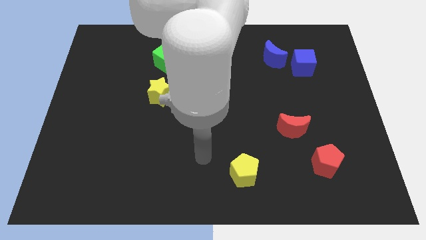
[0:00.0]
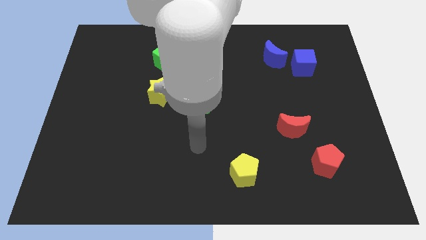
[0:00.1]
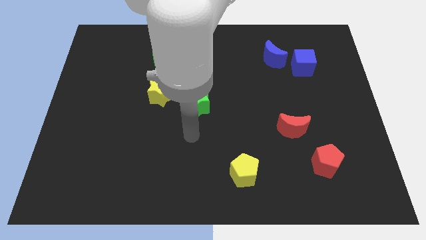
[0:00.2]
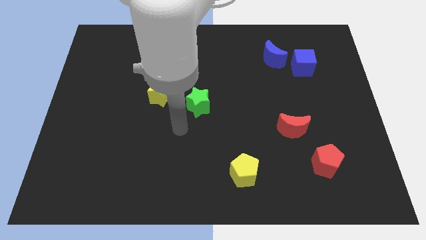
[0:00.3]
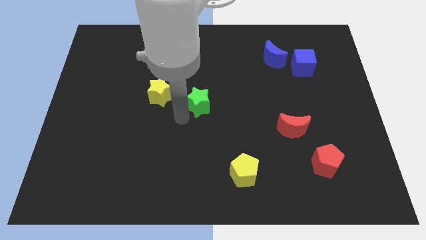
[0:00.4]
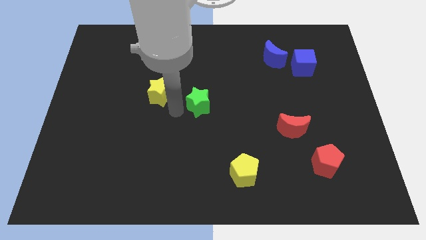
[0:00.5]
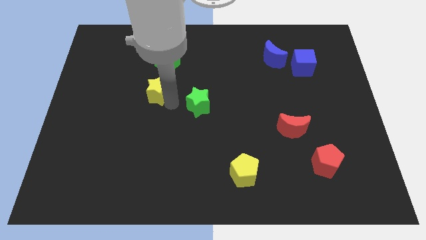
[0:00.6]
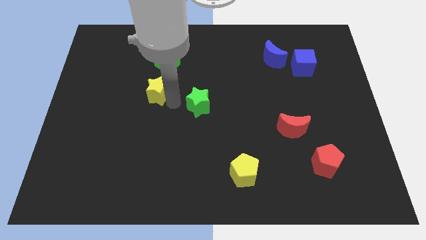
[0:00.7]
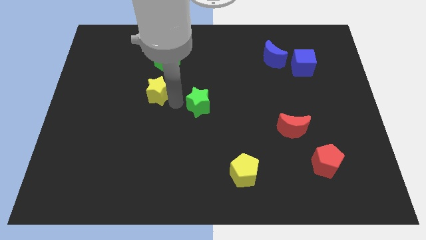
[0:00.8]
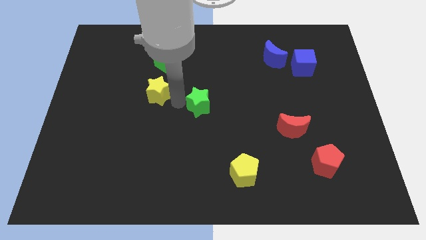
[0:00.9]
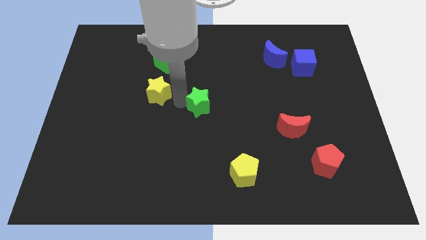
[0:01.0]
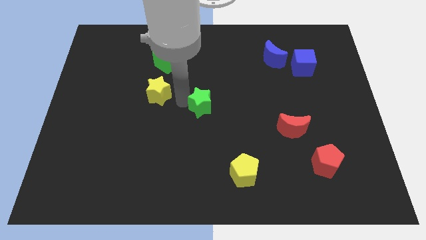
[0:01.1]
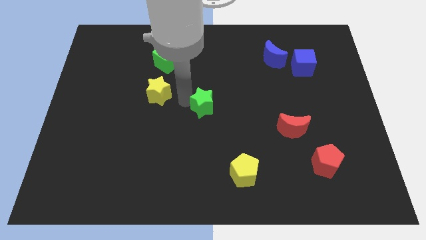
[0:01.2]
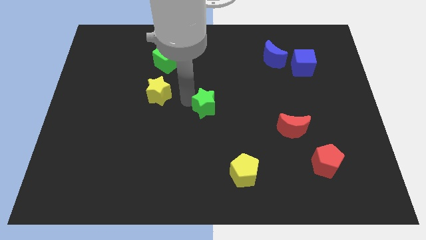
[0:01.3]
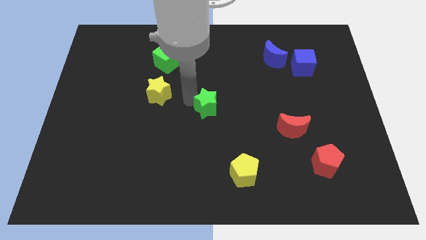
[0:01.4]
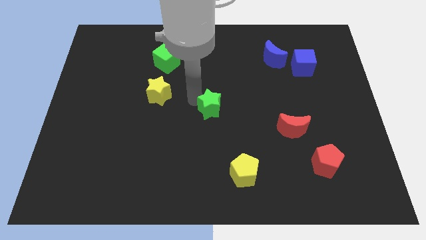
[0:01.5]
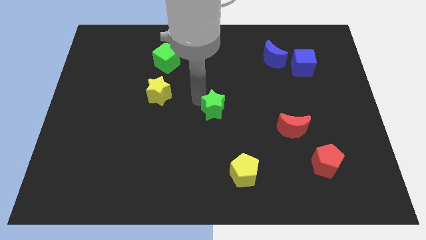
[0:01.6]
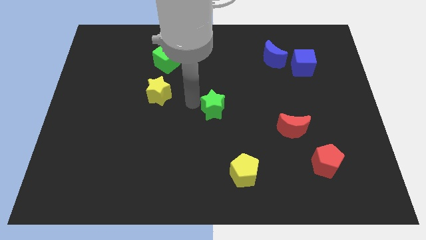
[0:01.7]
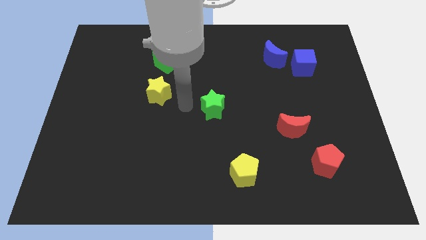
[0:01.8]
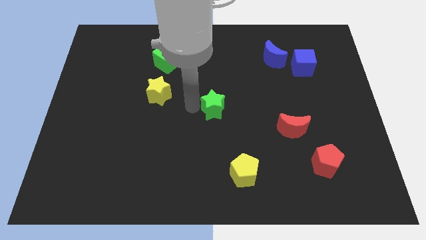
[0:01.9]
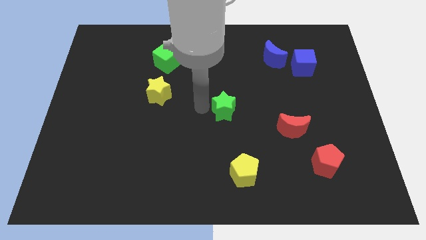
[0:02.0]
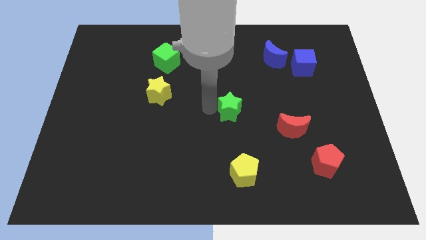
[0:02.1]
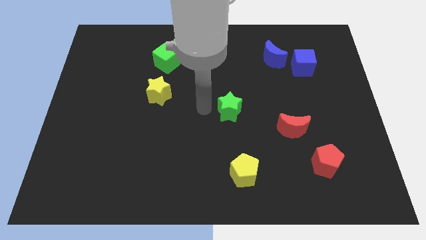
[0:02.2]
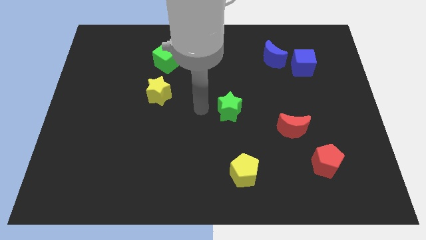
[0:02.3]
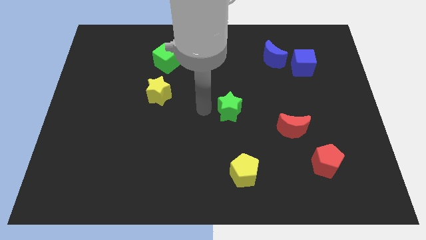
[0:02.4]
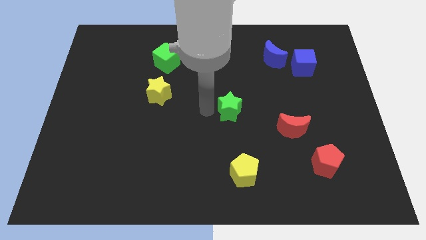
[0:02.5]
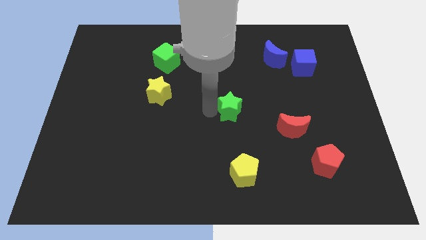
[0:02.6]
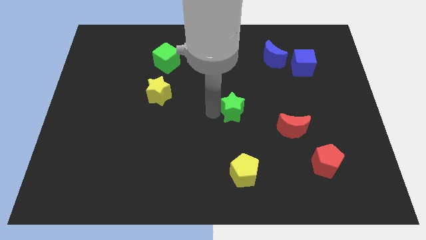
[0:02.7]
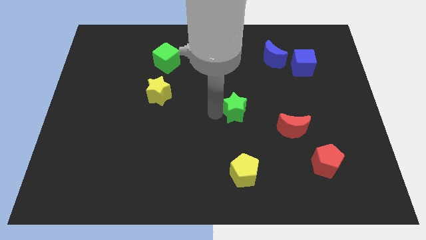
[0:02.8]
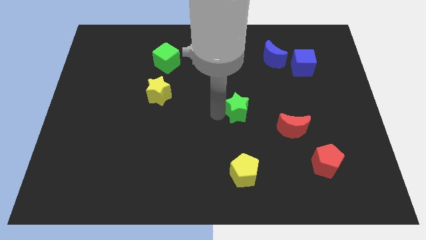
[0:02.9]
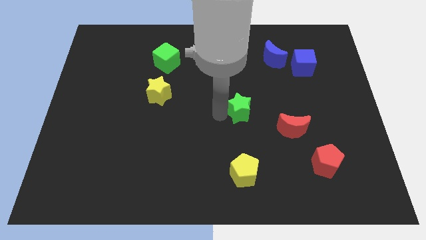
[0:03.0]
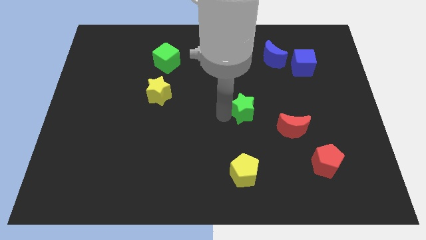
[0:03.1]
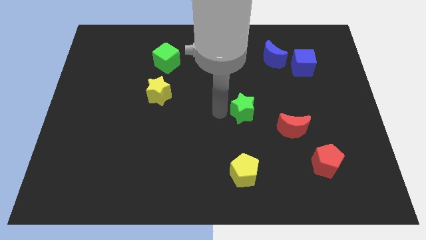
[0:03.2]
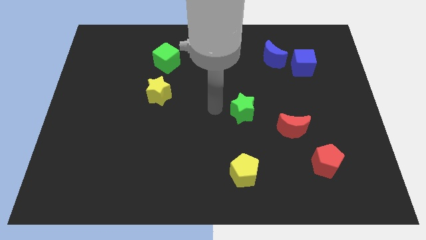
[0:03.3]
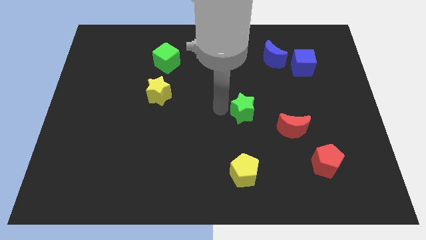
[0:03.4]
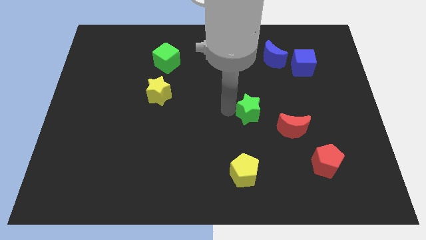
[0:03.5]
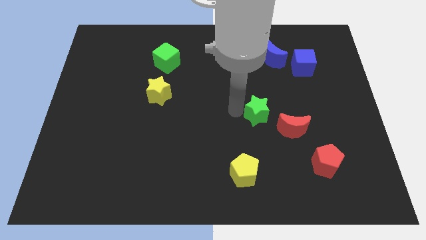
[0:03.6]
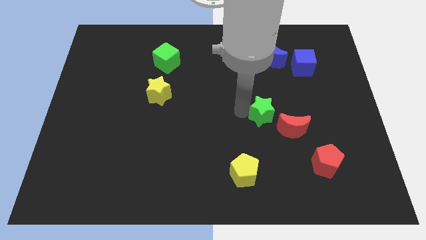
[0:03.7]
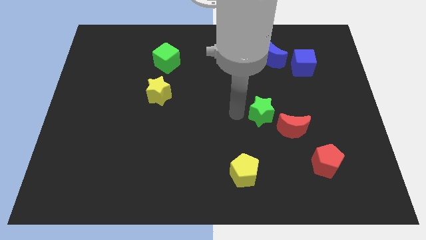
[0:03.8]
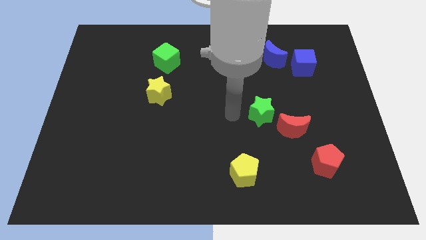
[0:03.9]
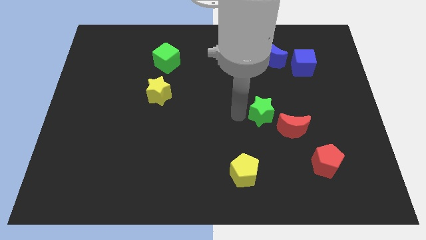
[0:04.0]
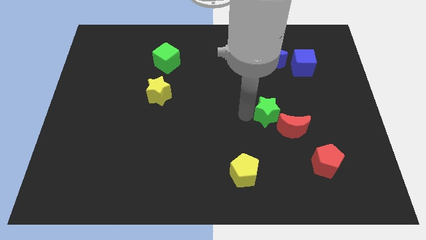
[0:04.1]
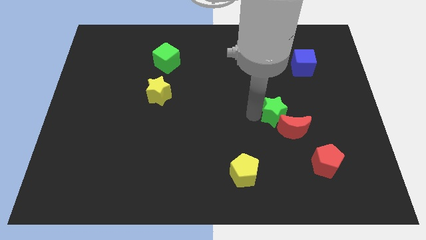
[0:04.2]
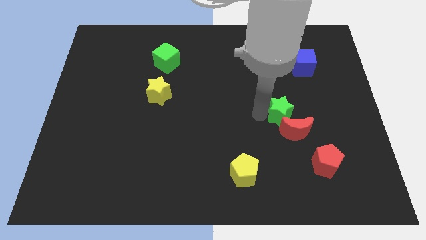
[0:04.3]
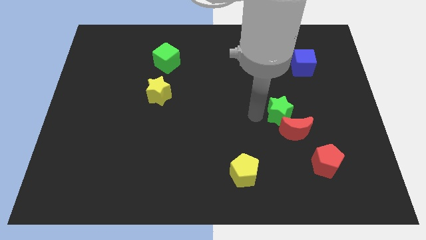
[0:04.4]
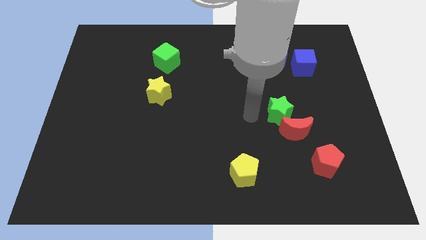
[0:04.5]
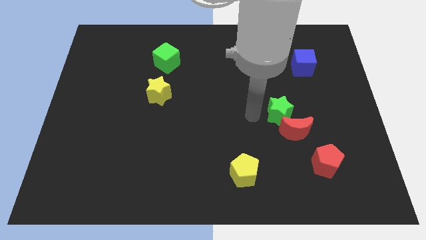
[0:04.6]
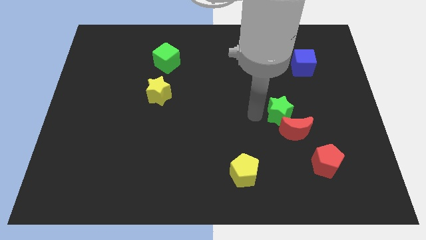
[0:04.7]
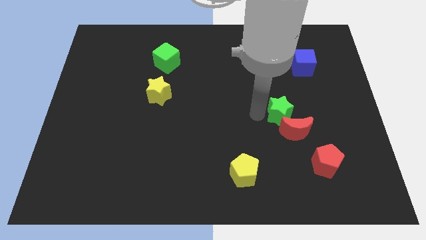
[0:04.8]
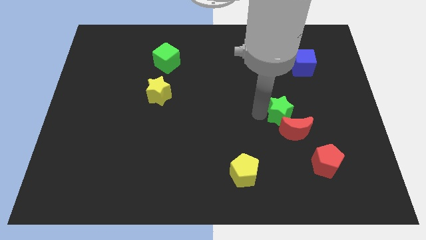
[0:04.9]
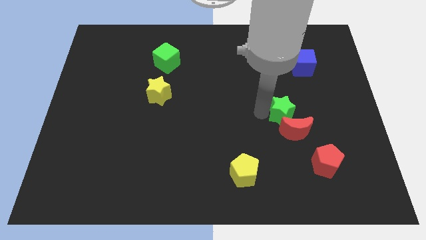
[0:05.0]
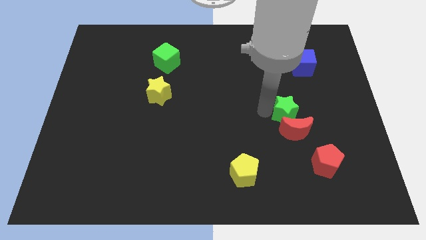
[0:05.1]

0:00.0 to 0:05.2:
push the green star to the right

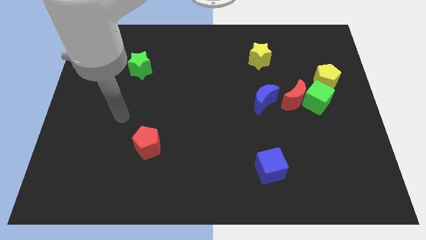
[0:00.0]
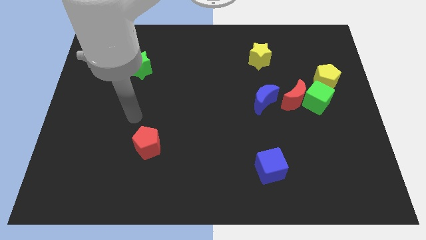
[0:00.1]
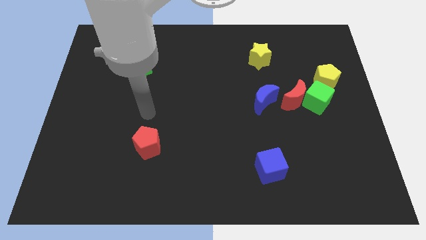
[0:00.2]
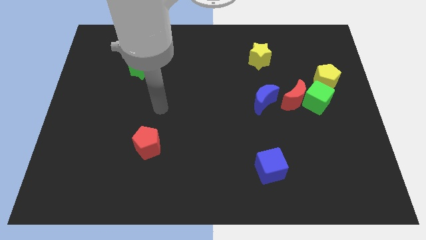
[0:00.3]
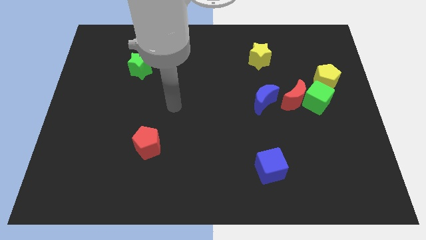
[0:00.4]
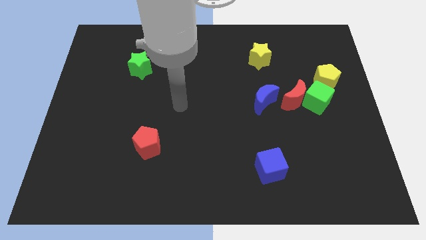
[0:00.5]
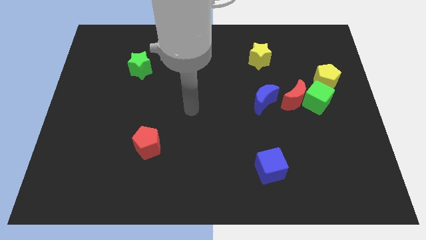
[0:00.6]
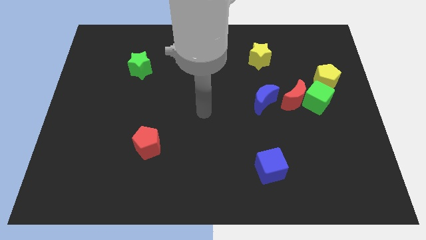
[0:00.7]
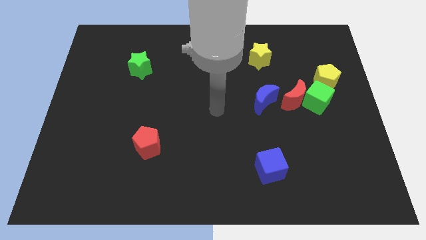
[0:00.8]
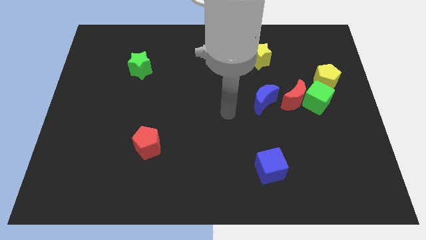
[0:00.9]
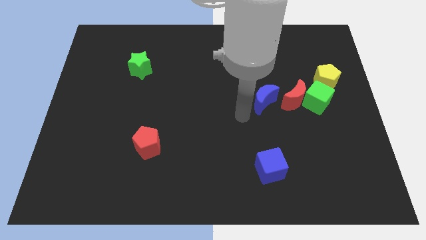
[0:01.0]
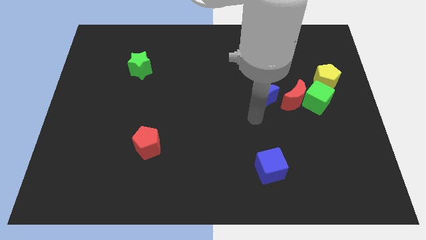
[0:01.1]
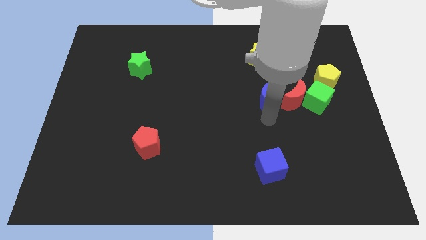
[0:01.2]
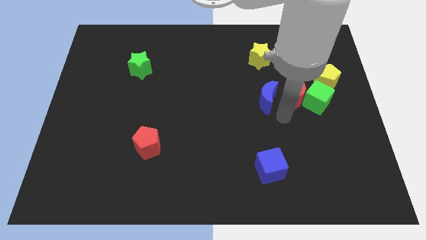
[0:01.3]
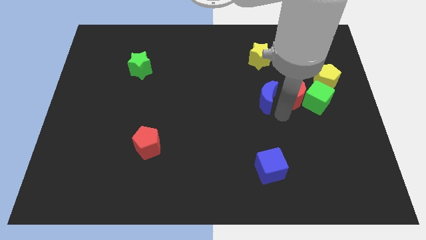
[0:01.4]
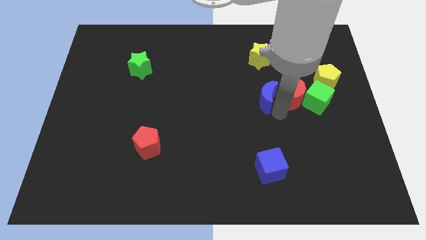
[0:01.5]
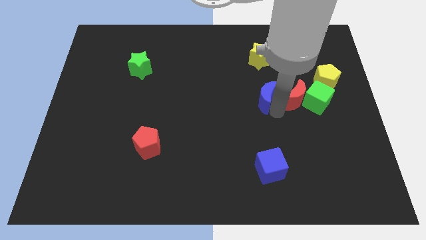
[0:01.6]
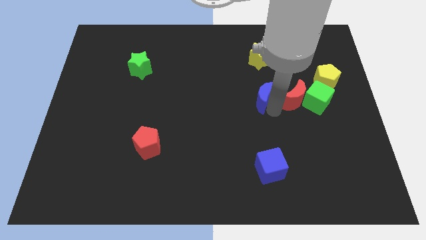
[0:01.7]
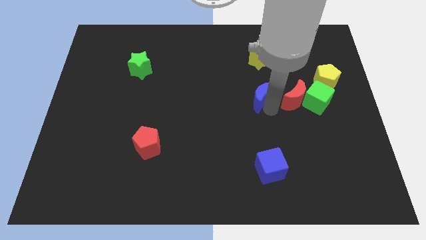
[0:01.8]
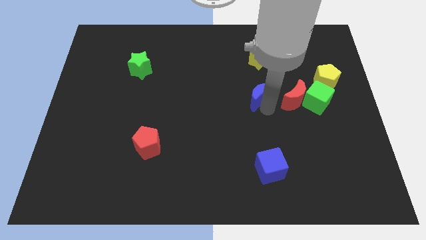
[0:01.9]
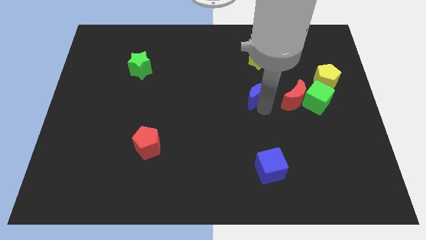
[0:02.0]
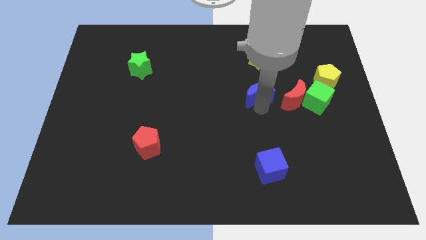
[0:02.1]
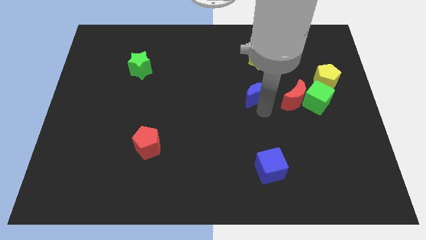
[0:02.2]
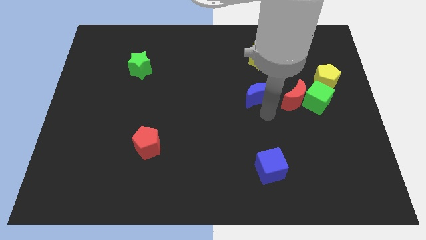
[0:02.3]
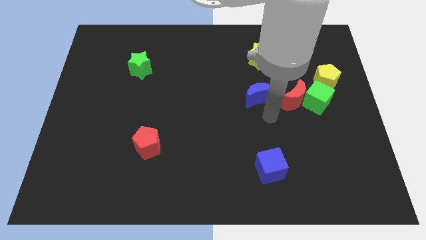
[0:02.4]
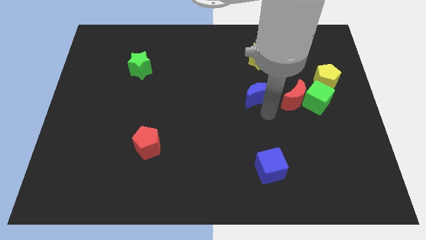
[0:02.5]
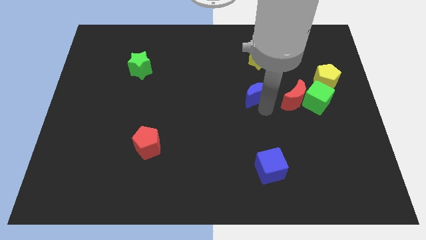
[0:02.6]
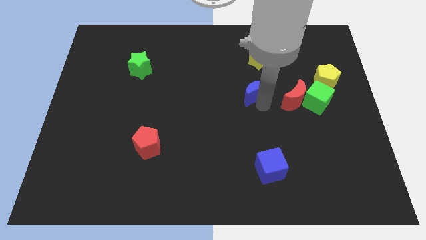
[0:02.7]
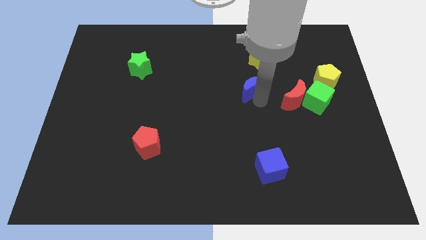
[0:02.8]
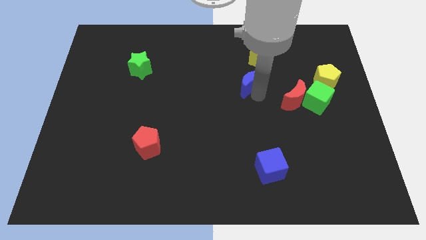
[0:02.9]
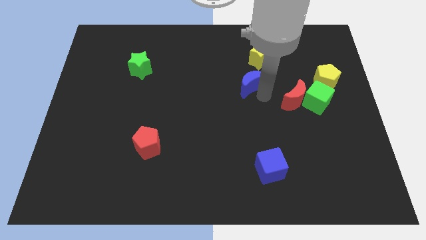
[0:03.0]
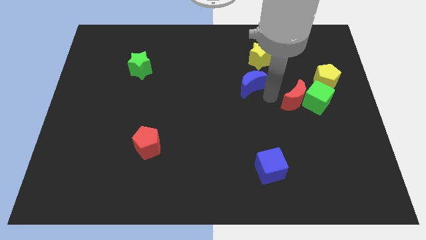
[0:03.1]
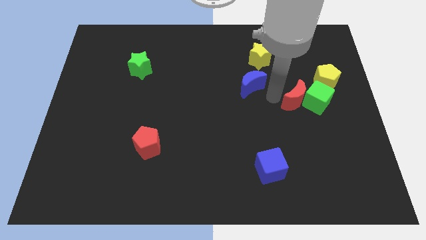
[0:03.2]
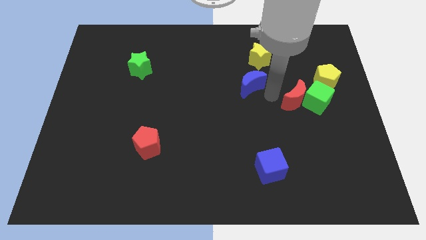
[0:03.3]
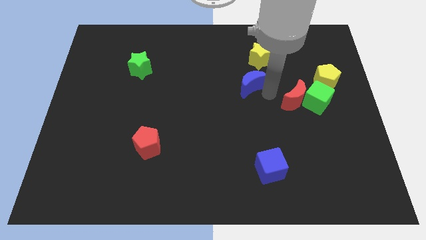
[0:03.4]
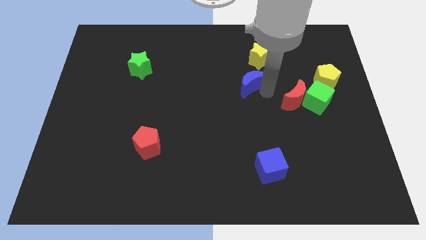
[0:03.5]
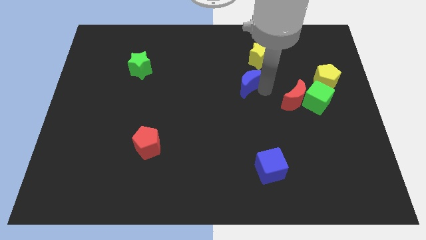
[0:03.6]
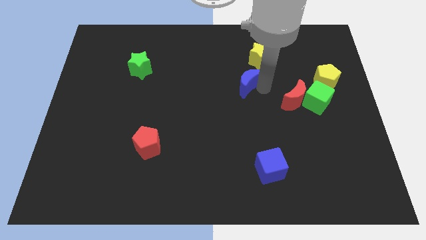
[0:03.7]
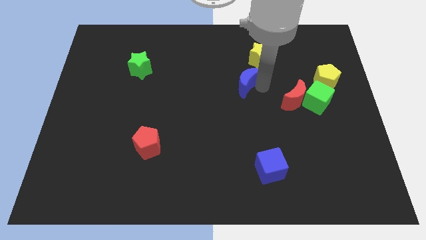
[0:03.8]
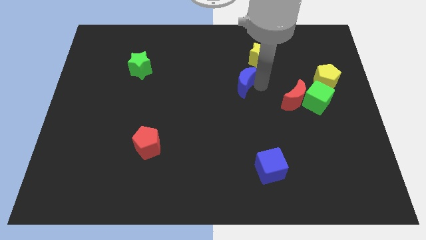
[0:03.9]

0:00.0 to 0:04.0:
push the blue moon up and left diagonally a little bit
